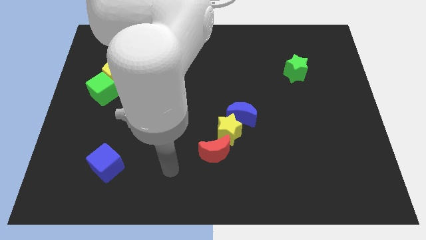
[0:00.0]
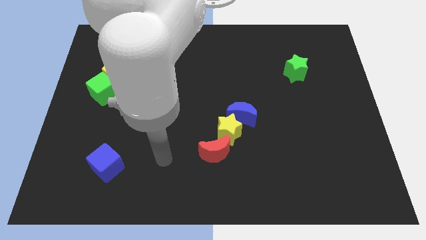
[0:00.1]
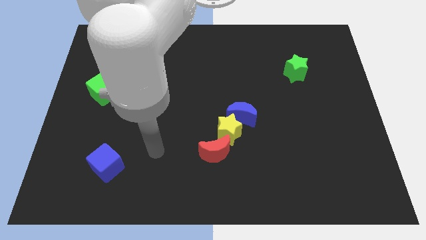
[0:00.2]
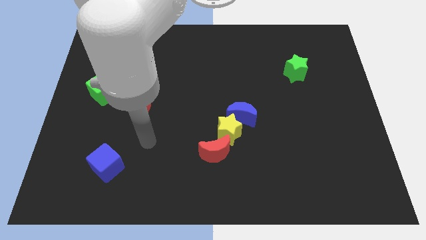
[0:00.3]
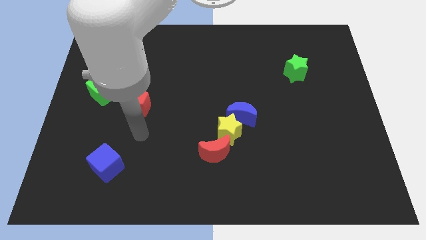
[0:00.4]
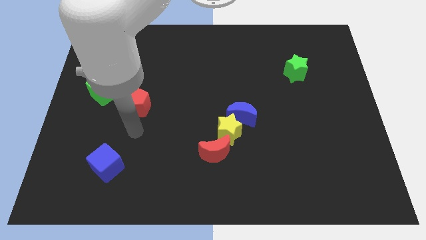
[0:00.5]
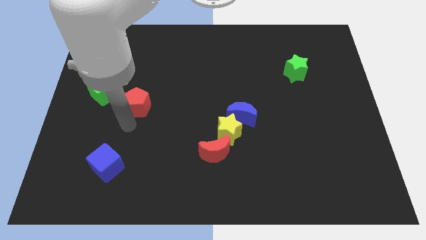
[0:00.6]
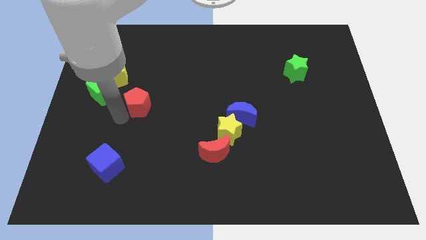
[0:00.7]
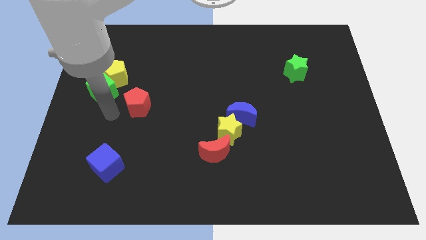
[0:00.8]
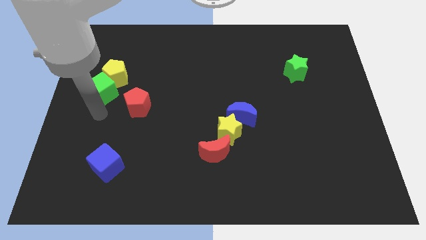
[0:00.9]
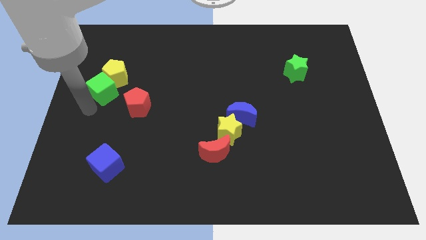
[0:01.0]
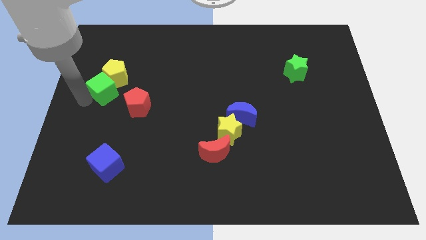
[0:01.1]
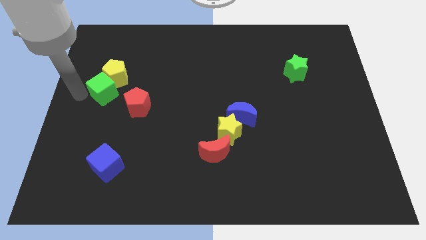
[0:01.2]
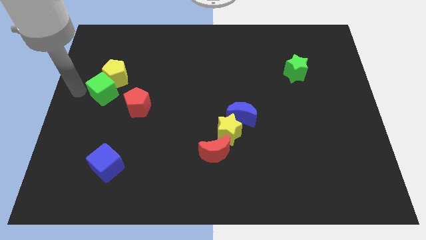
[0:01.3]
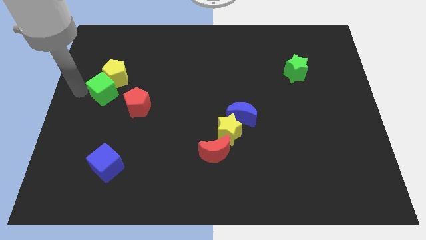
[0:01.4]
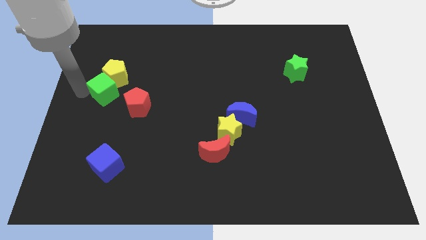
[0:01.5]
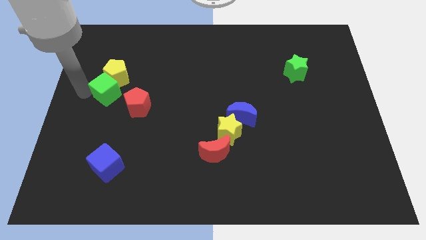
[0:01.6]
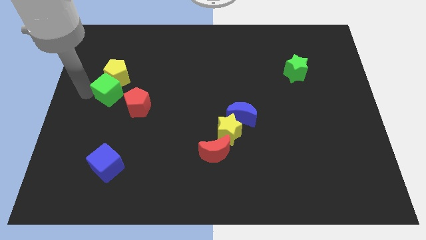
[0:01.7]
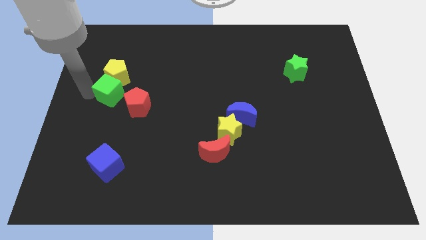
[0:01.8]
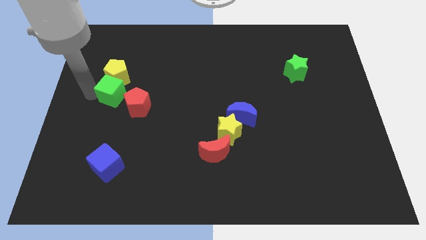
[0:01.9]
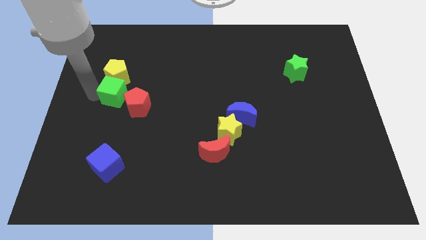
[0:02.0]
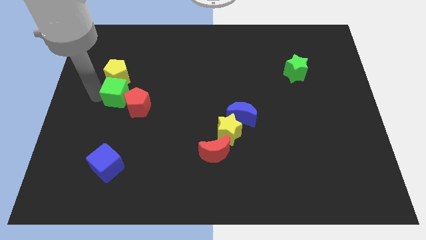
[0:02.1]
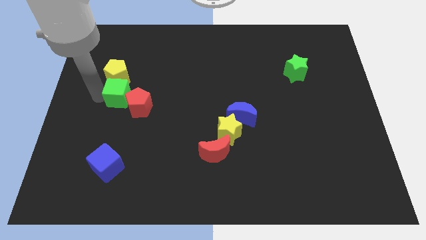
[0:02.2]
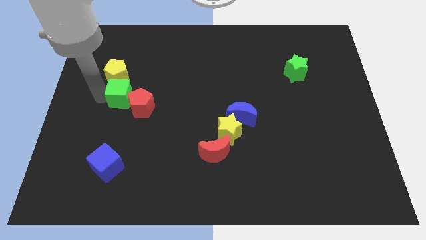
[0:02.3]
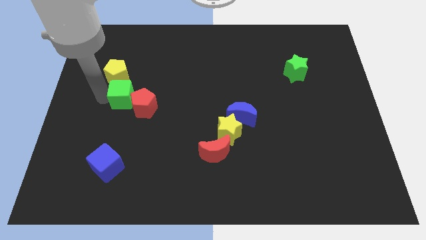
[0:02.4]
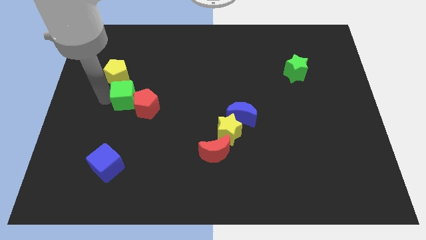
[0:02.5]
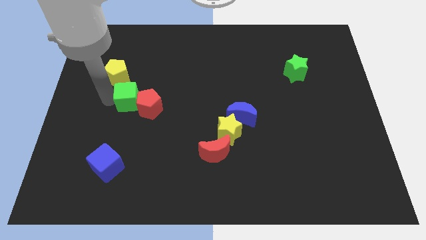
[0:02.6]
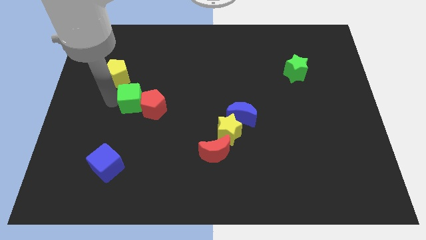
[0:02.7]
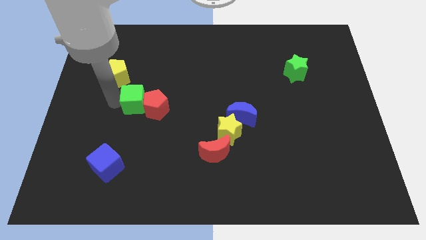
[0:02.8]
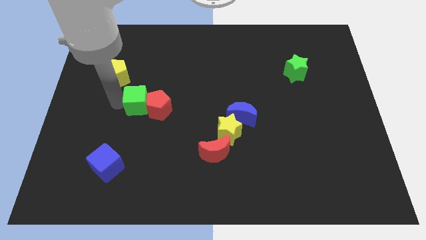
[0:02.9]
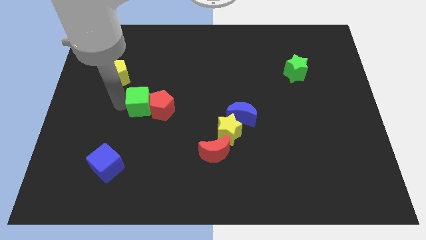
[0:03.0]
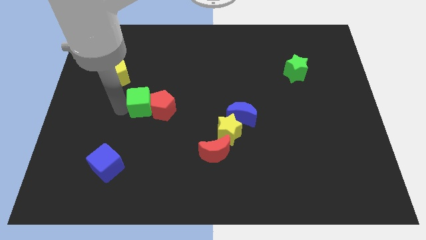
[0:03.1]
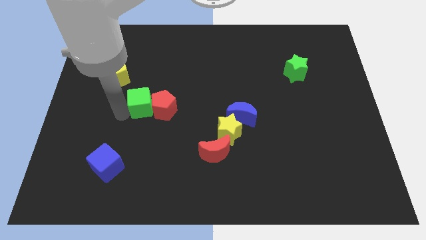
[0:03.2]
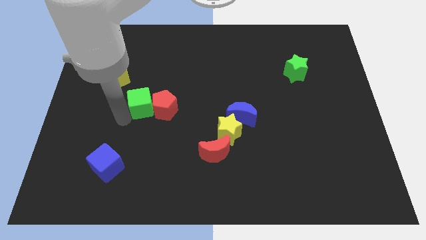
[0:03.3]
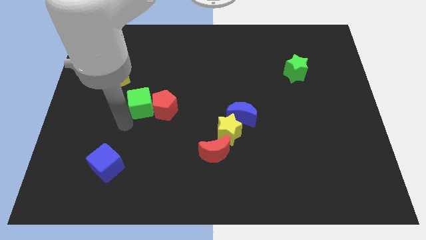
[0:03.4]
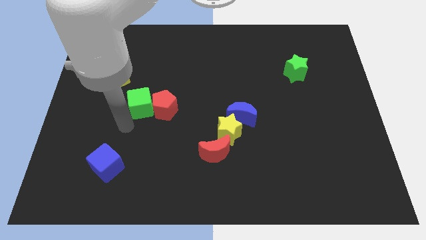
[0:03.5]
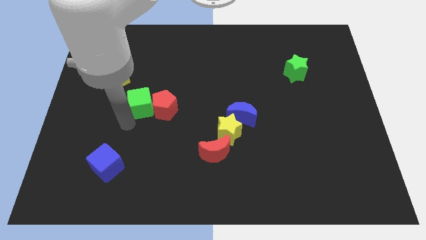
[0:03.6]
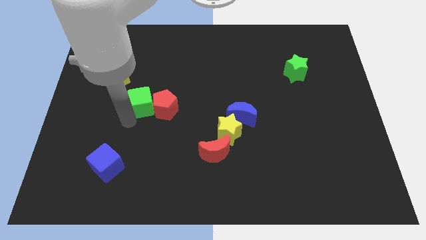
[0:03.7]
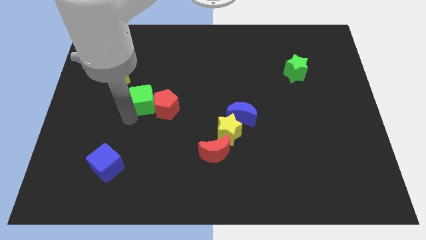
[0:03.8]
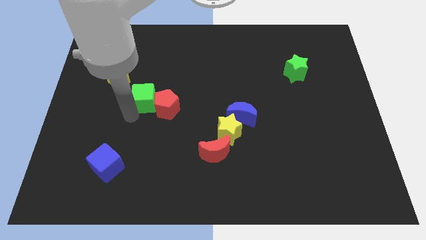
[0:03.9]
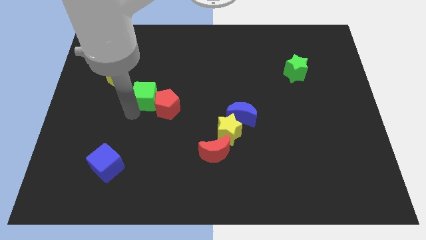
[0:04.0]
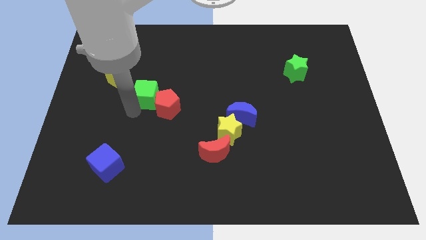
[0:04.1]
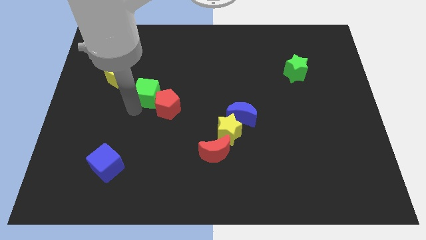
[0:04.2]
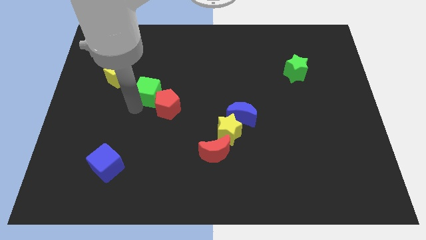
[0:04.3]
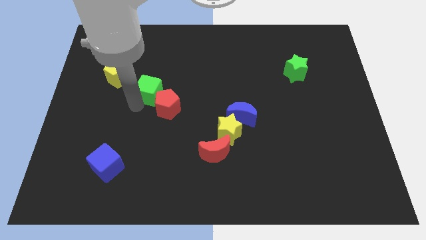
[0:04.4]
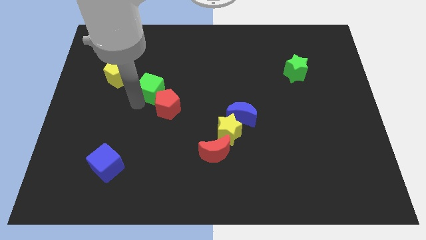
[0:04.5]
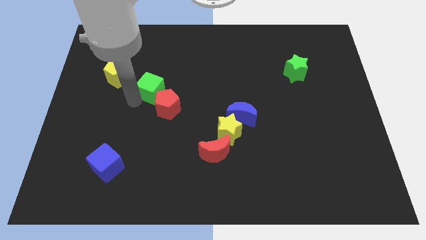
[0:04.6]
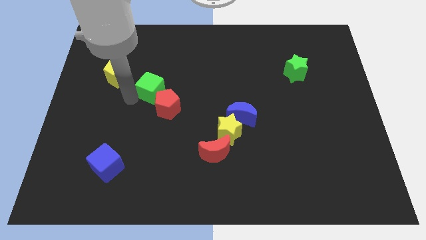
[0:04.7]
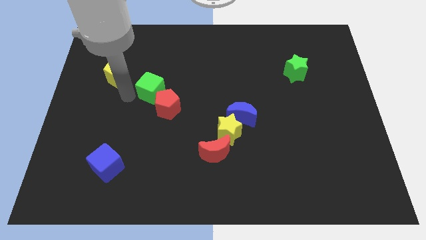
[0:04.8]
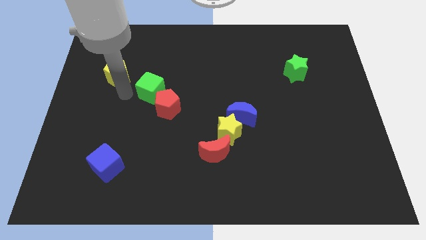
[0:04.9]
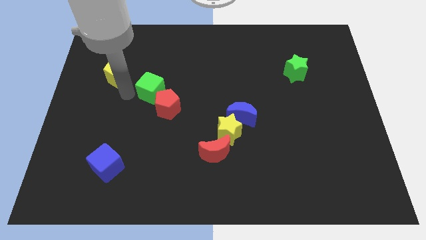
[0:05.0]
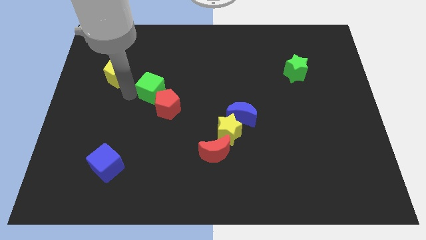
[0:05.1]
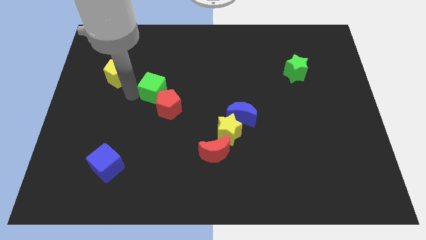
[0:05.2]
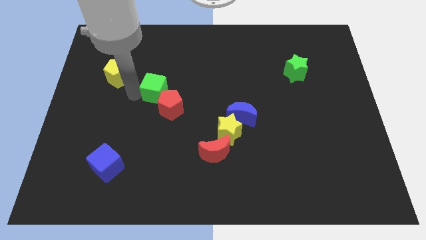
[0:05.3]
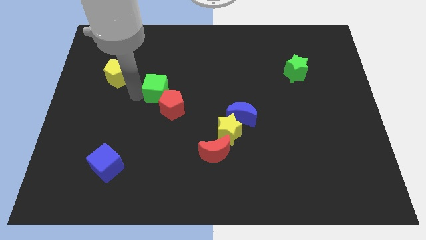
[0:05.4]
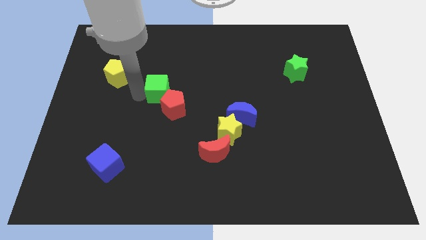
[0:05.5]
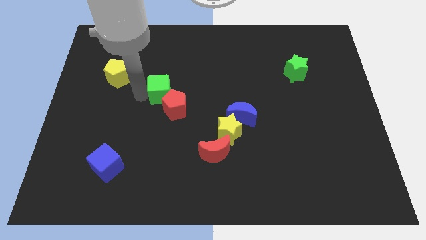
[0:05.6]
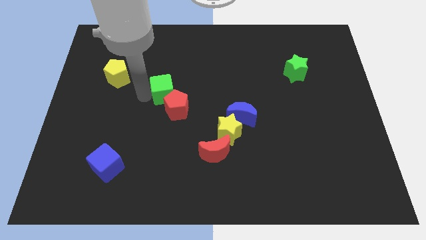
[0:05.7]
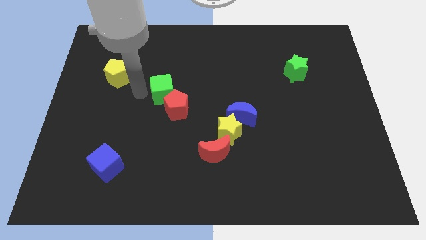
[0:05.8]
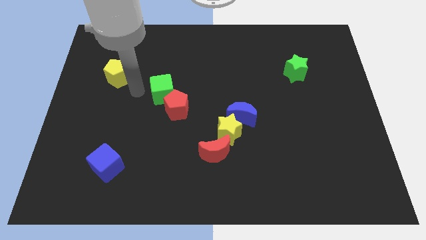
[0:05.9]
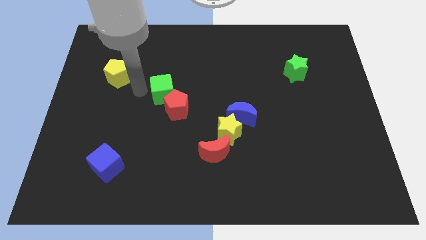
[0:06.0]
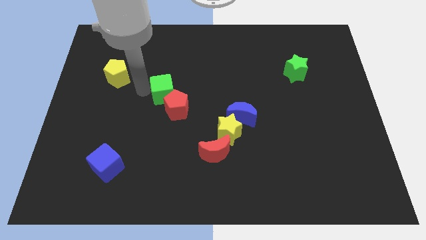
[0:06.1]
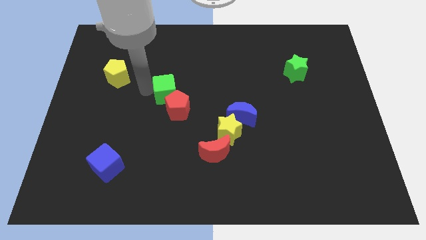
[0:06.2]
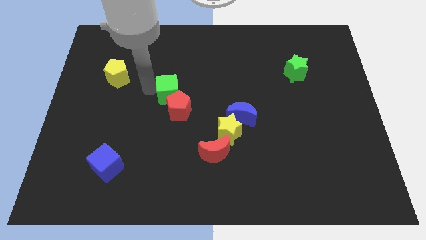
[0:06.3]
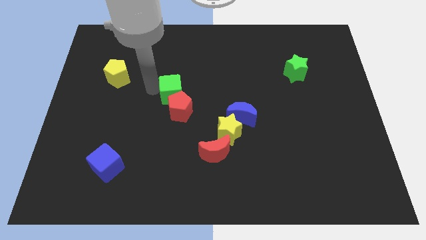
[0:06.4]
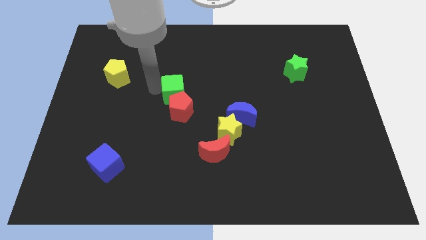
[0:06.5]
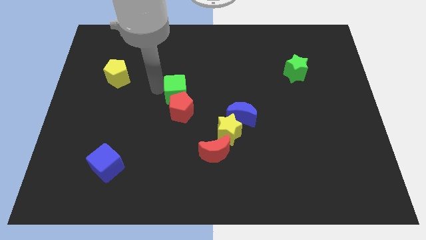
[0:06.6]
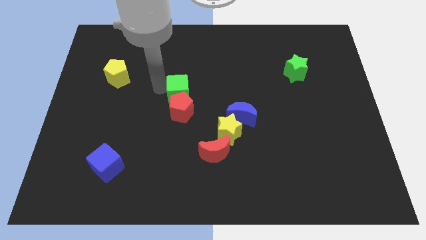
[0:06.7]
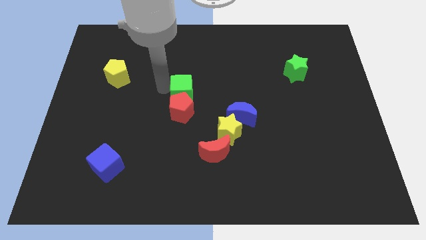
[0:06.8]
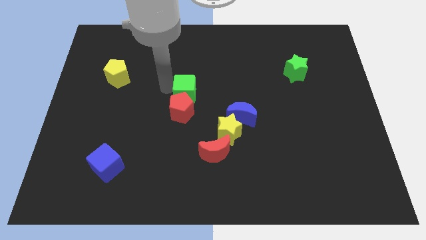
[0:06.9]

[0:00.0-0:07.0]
move the green cube to the right

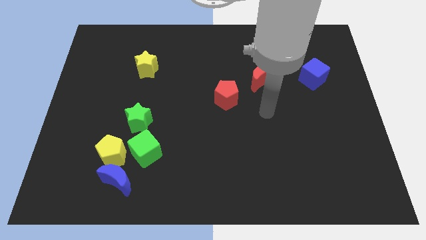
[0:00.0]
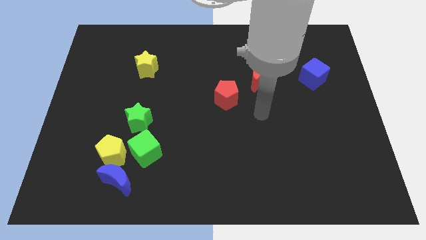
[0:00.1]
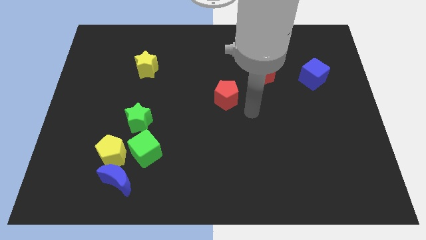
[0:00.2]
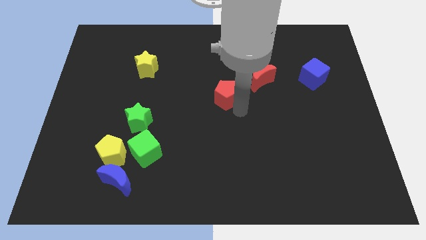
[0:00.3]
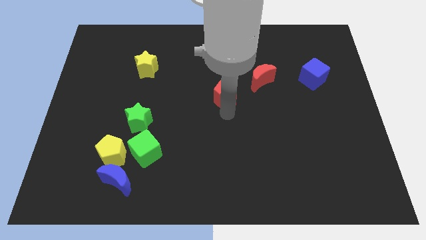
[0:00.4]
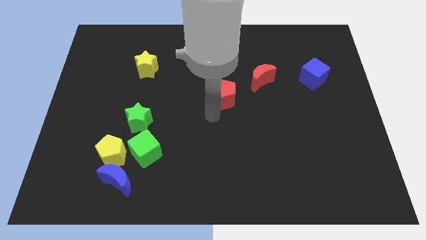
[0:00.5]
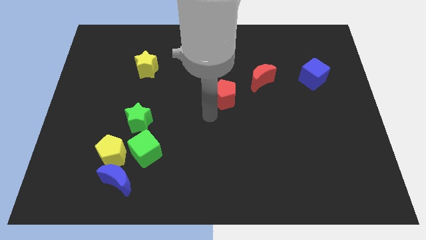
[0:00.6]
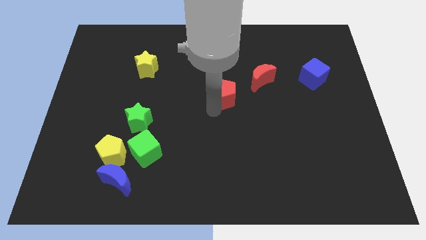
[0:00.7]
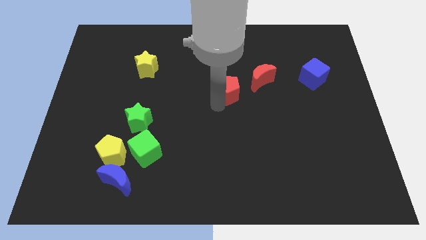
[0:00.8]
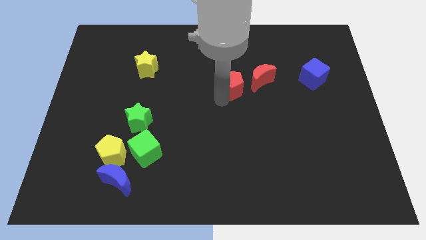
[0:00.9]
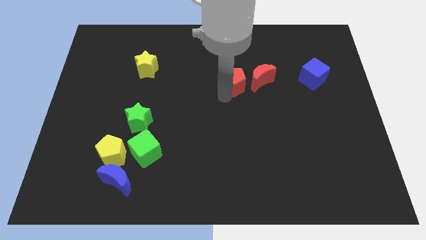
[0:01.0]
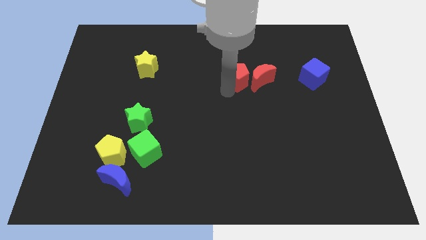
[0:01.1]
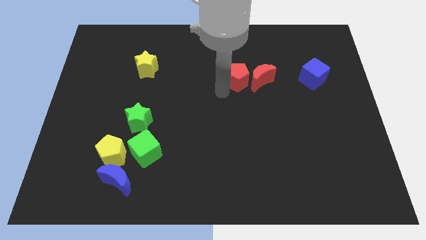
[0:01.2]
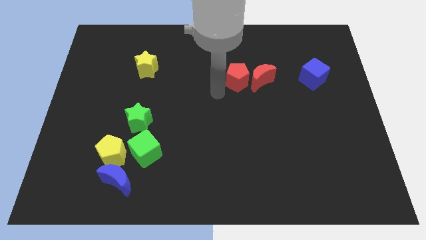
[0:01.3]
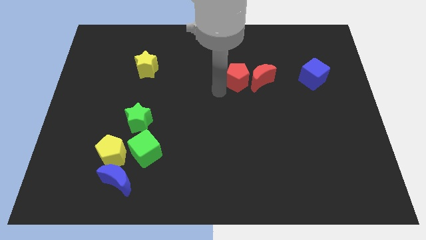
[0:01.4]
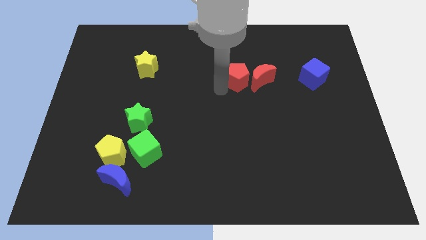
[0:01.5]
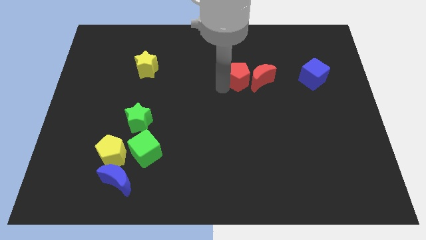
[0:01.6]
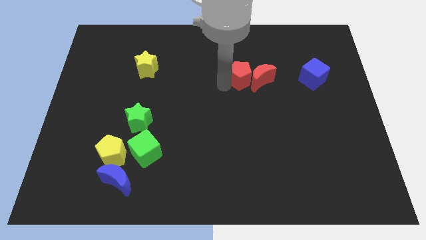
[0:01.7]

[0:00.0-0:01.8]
move the red pentagon up and to the right a little bit

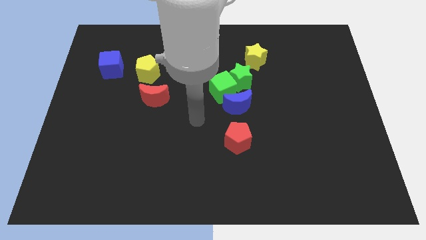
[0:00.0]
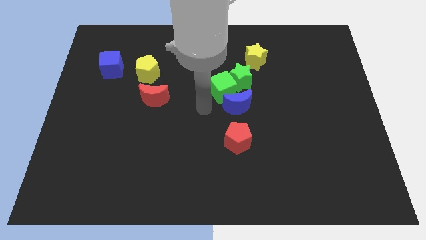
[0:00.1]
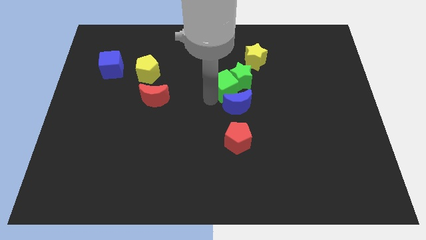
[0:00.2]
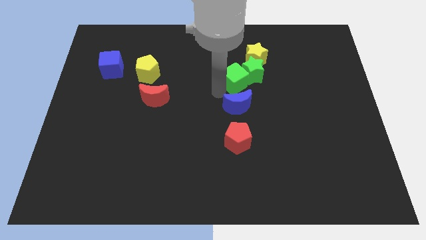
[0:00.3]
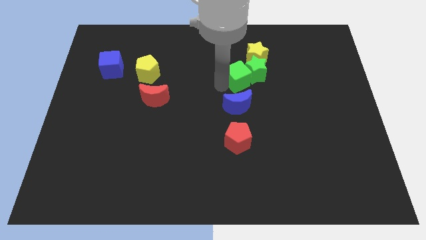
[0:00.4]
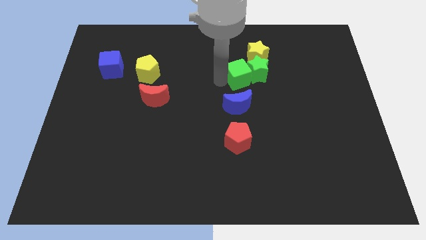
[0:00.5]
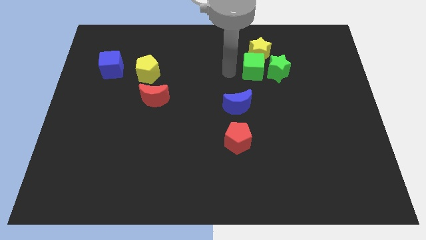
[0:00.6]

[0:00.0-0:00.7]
slide the green star a bit to the right
